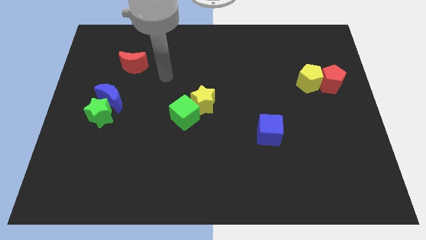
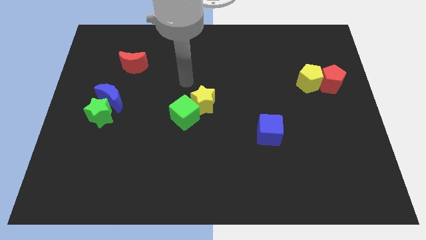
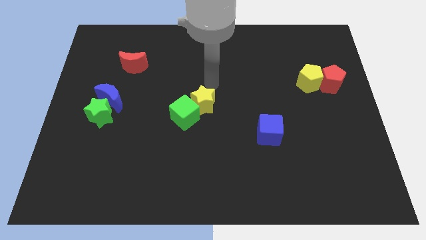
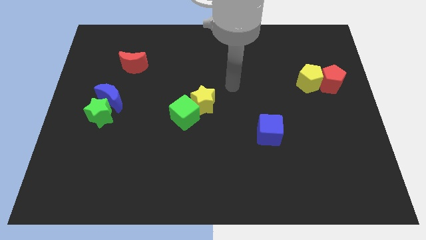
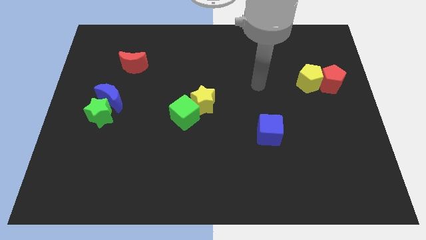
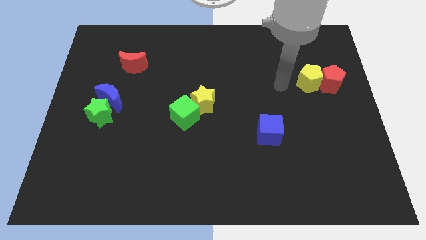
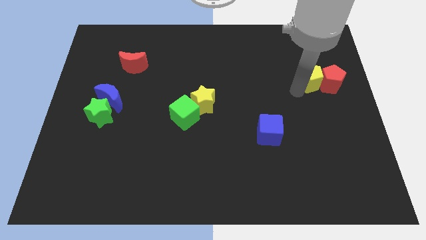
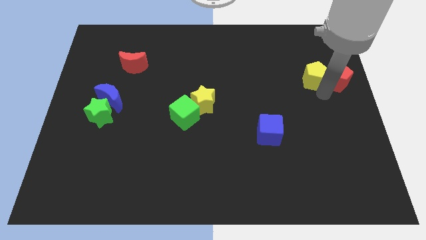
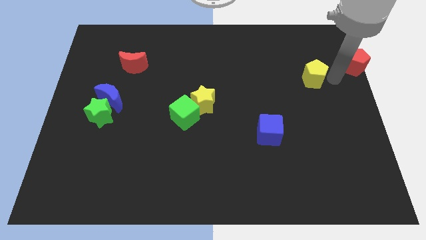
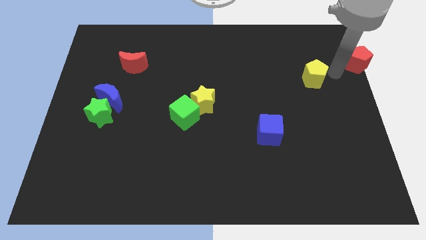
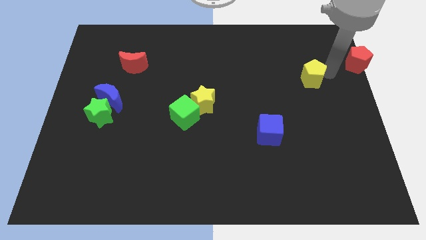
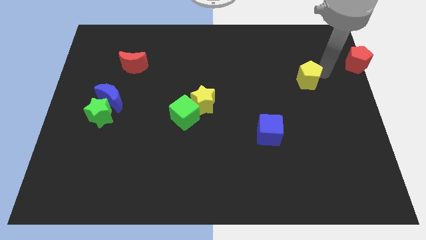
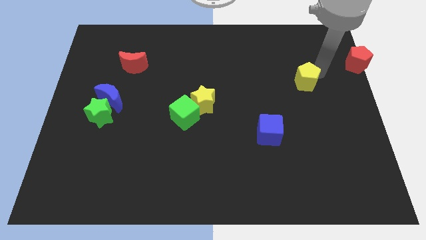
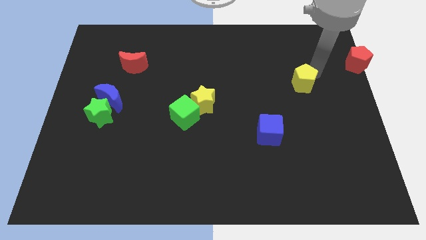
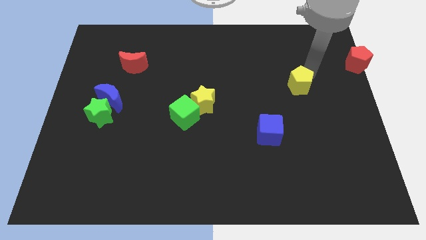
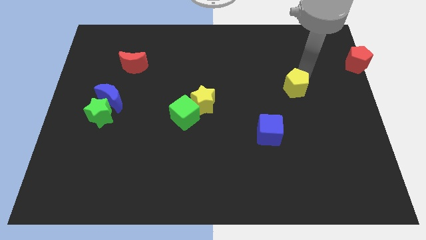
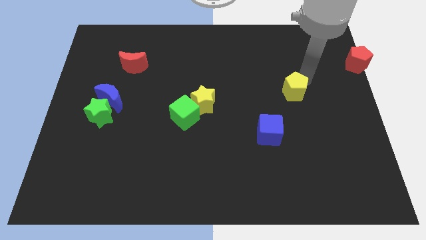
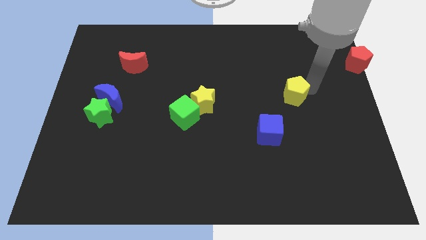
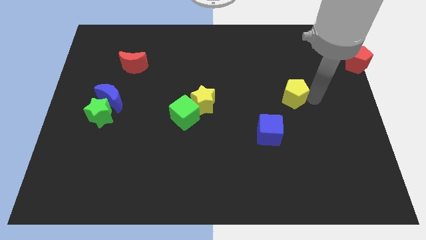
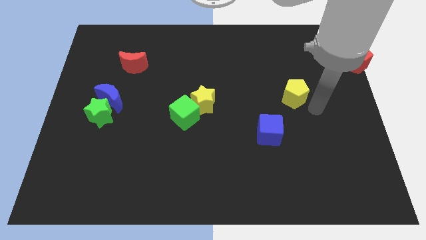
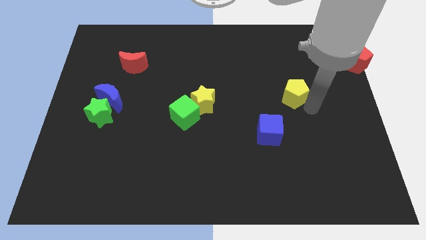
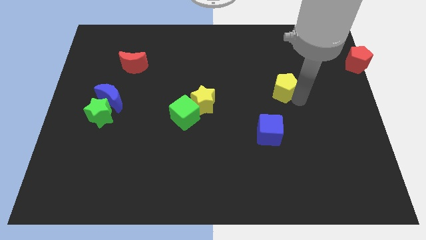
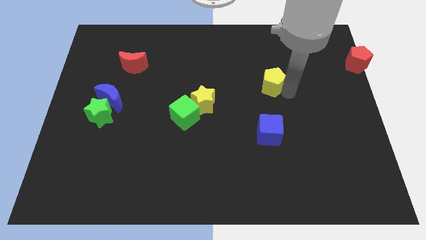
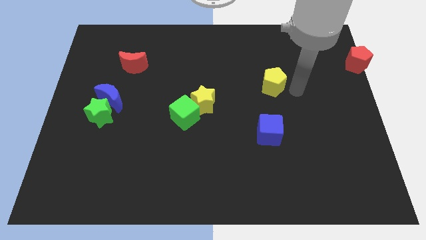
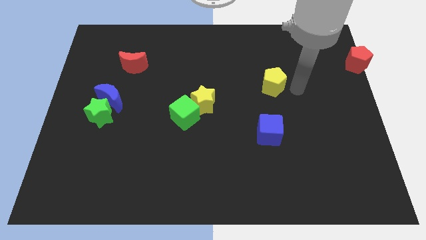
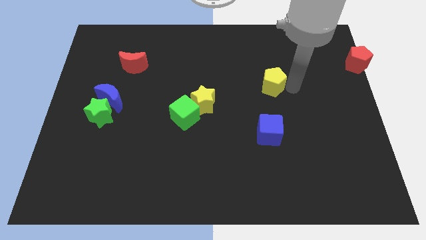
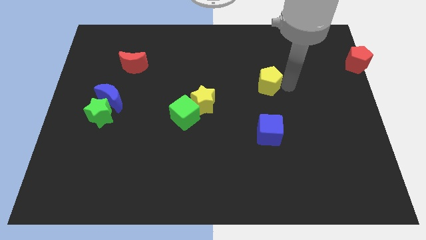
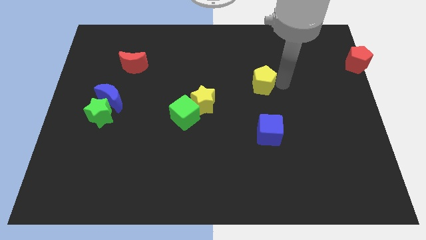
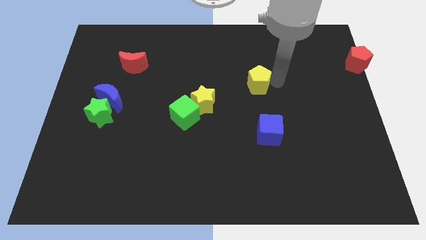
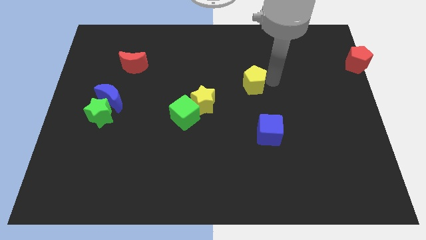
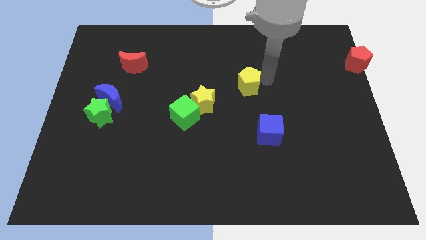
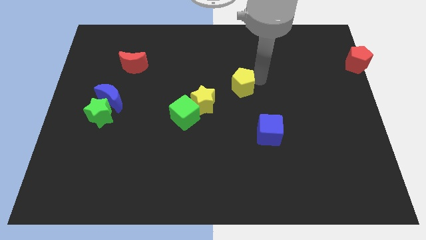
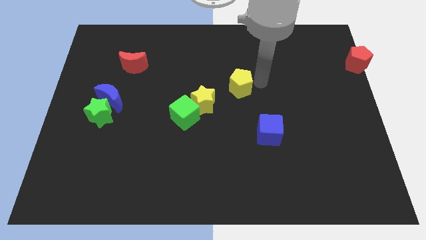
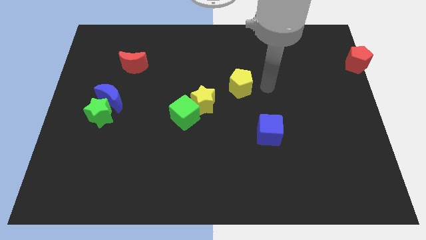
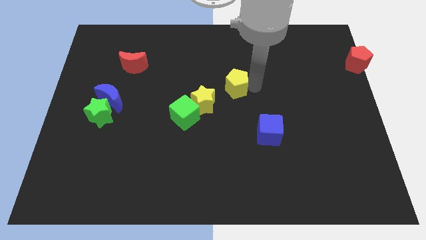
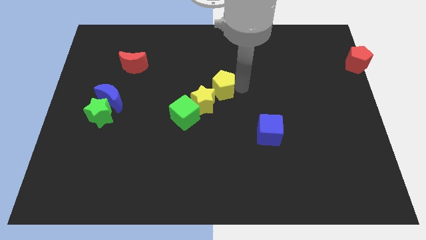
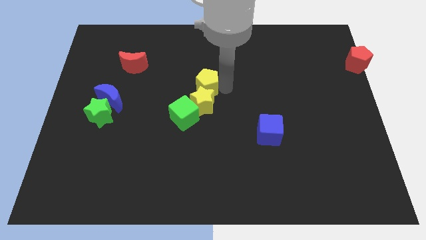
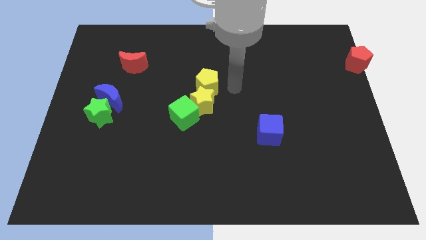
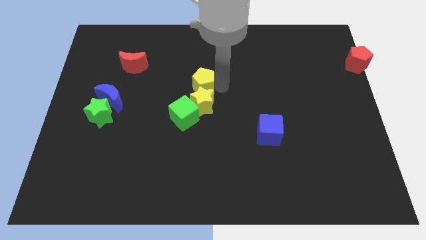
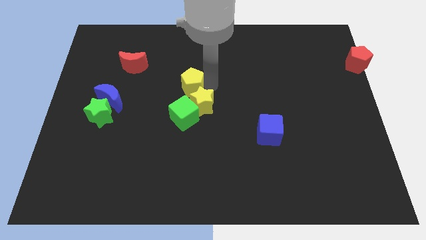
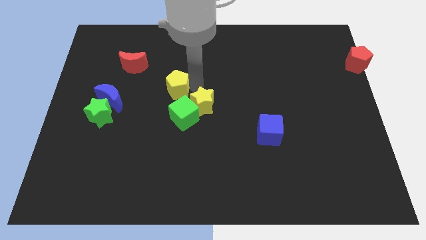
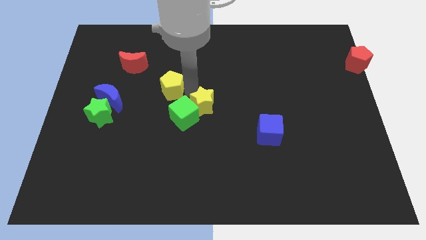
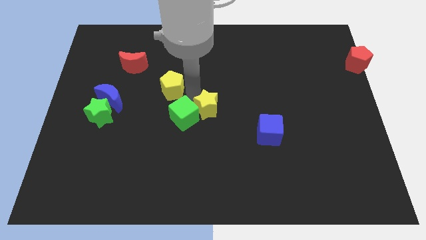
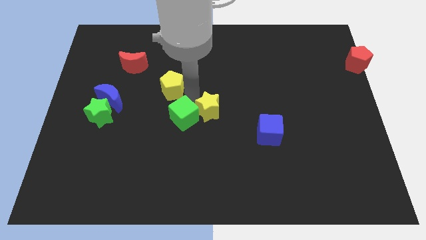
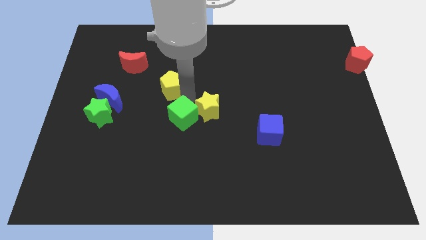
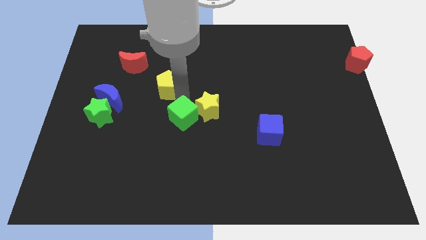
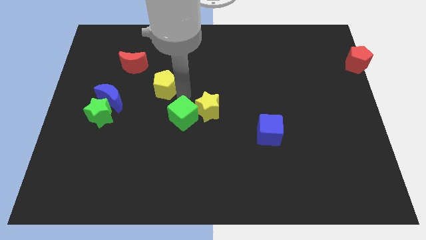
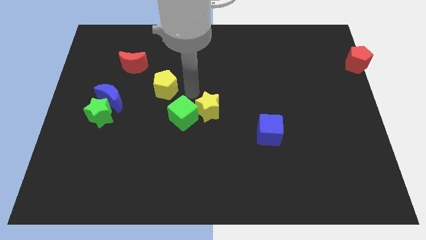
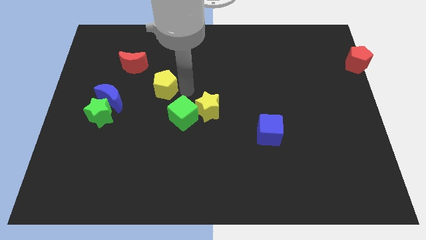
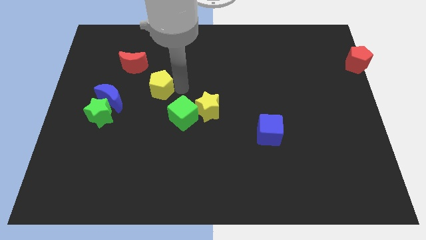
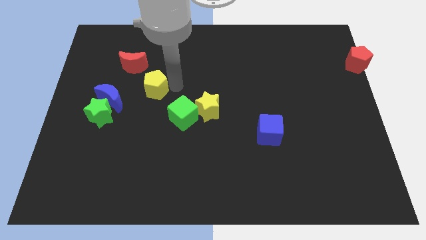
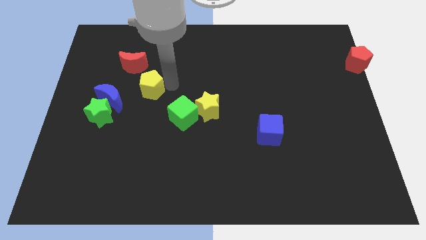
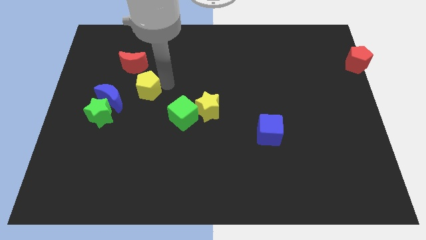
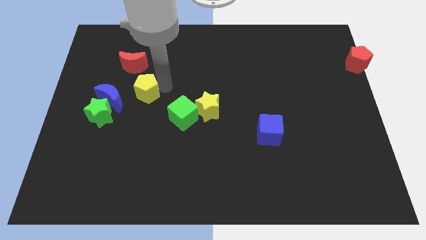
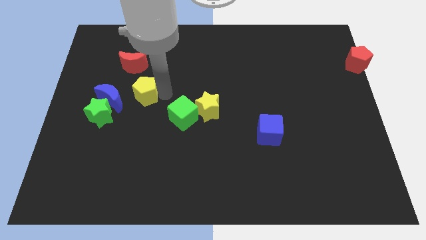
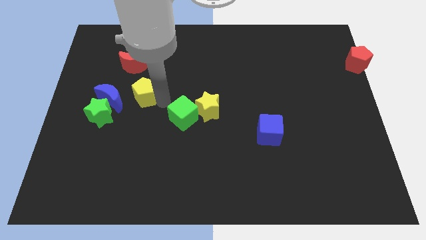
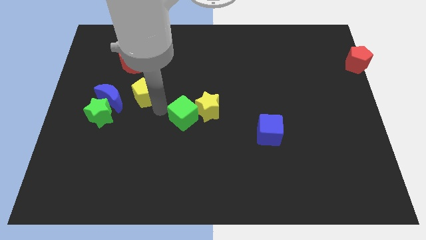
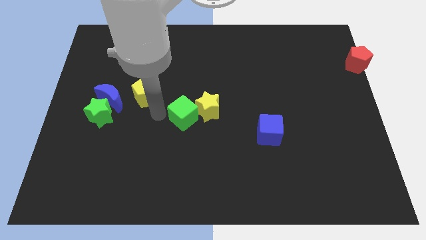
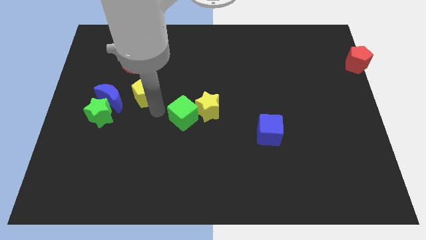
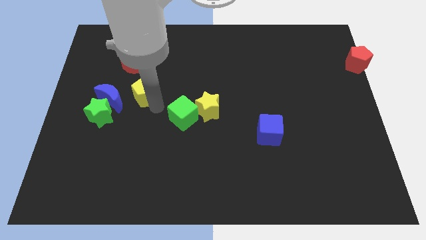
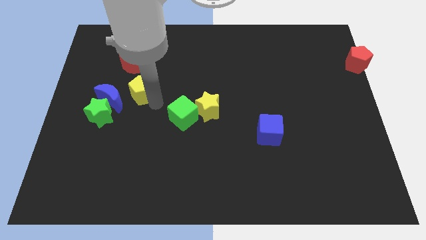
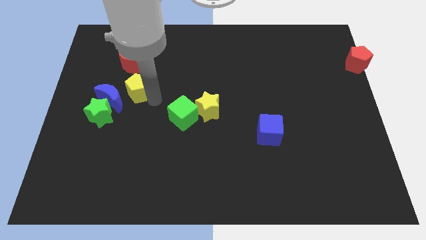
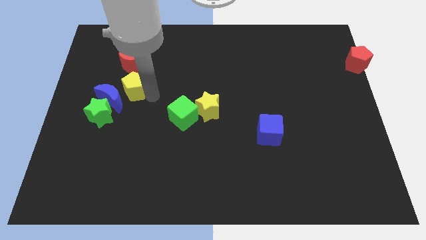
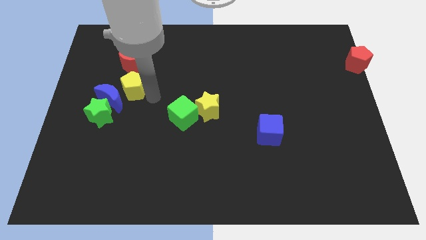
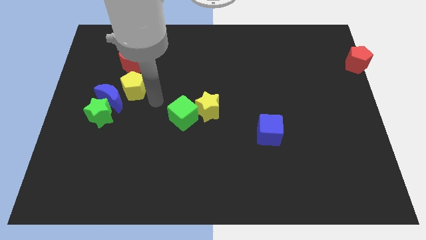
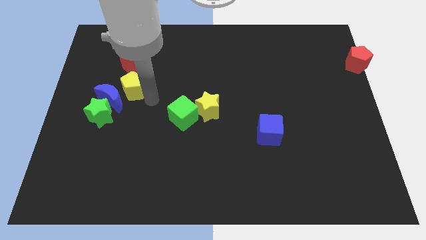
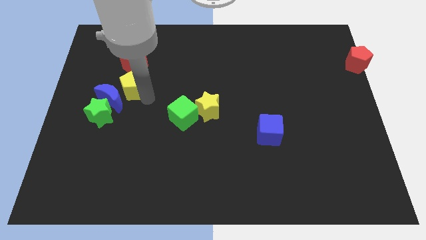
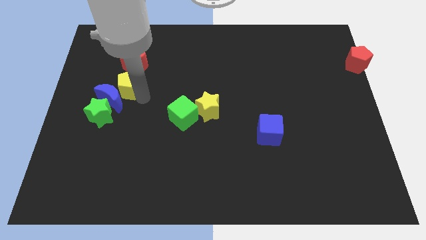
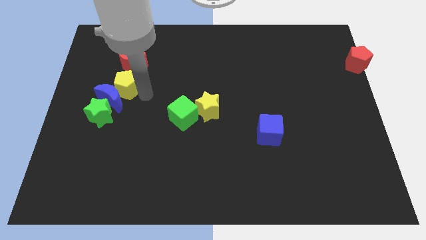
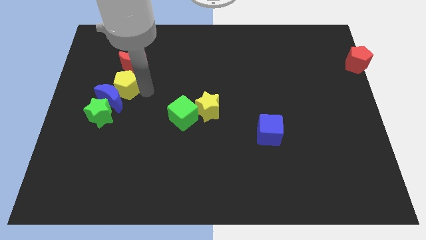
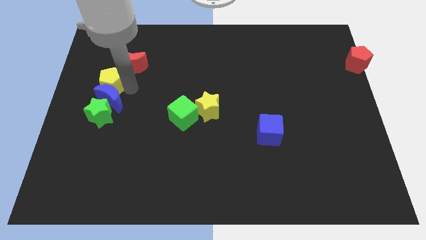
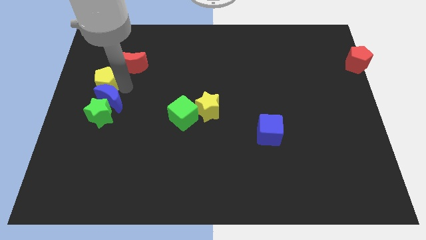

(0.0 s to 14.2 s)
push the yellow pentagon to the left side

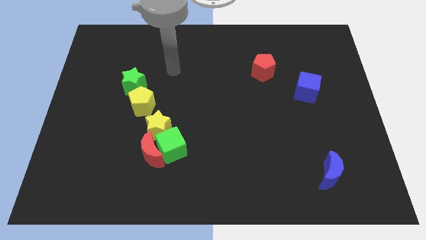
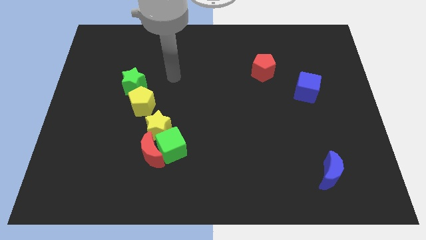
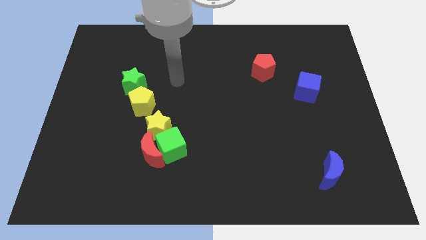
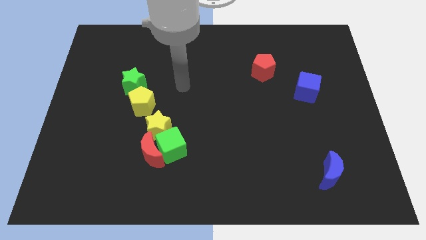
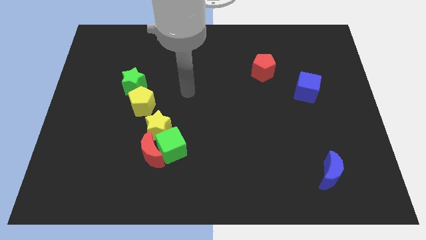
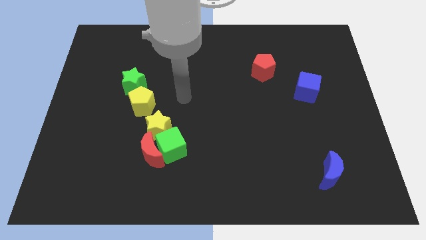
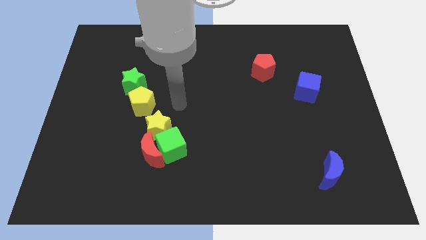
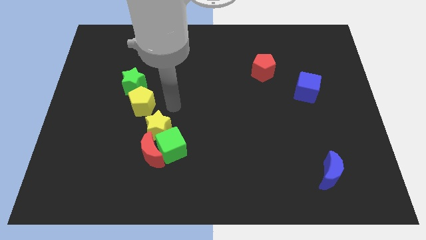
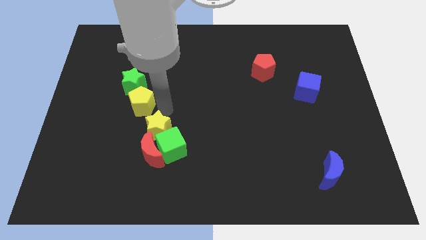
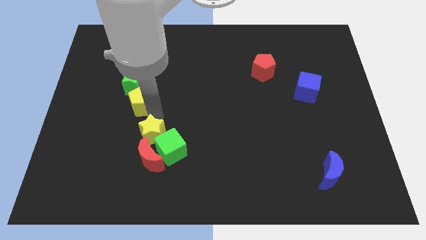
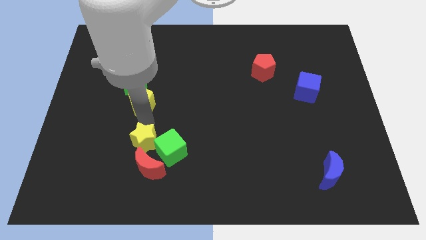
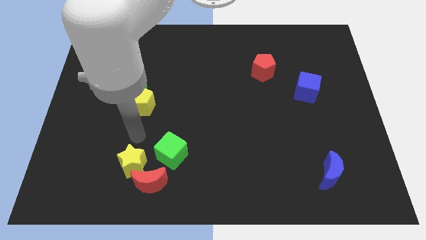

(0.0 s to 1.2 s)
put the red moon to the bottom
